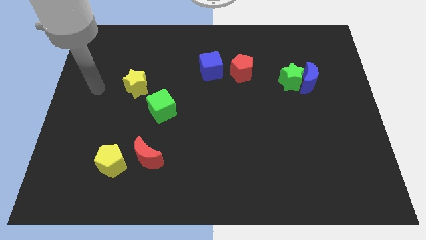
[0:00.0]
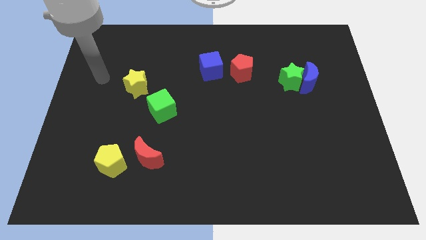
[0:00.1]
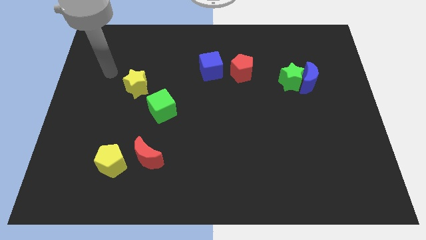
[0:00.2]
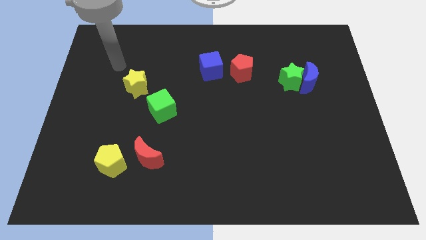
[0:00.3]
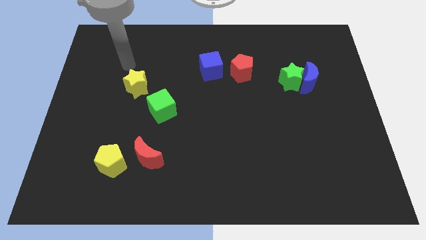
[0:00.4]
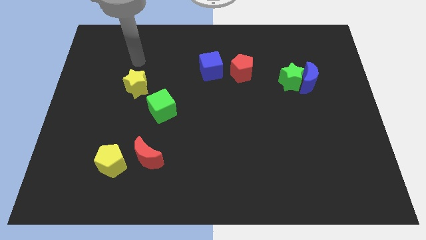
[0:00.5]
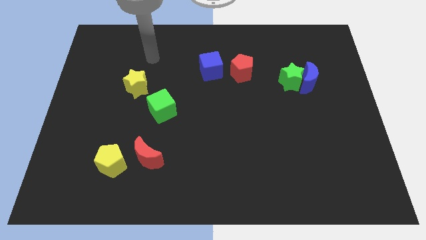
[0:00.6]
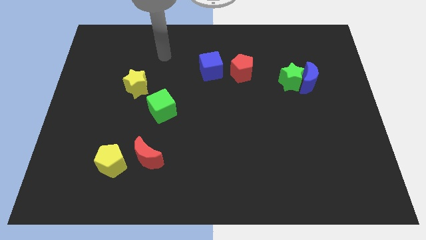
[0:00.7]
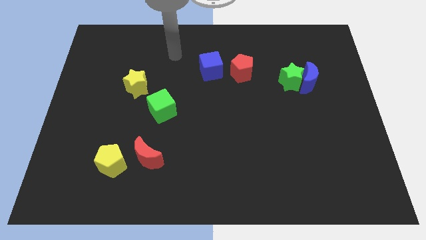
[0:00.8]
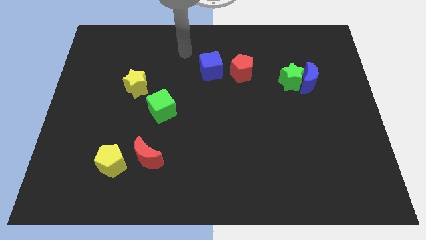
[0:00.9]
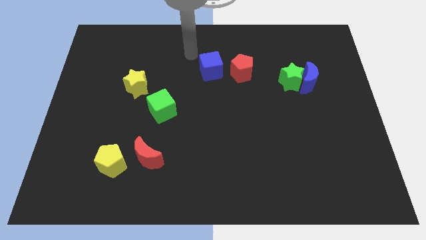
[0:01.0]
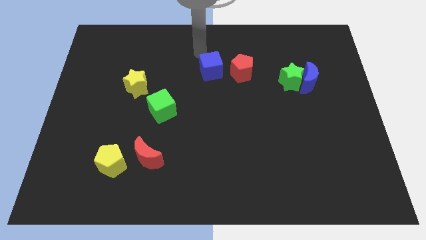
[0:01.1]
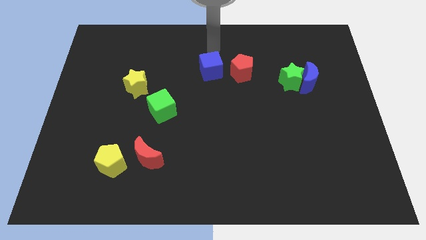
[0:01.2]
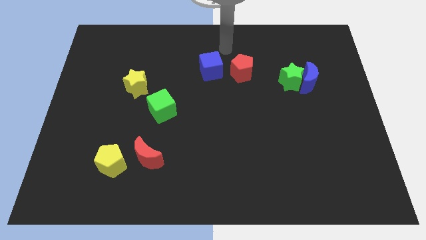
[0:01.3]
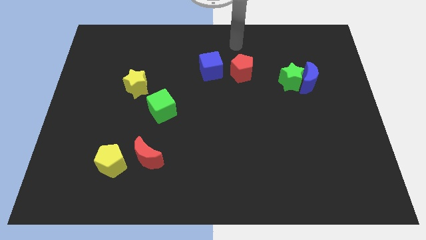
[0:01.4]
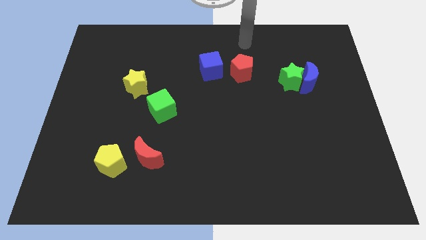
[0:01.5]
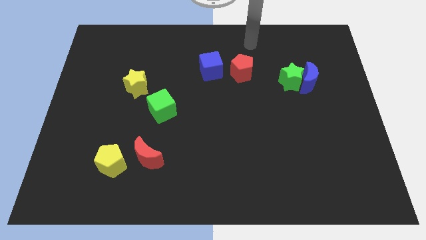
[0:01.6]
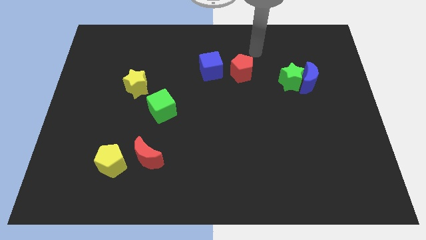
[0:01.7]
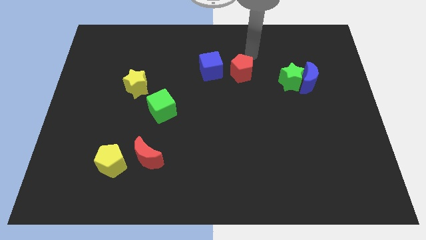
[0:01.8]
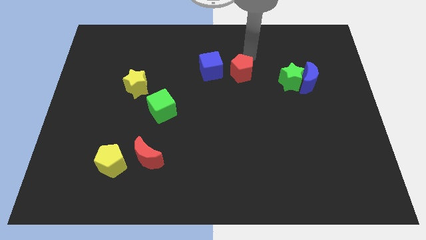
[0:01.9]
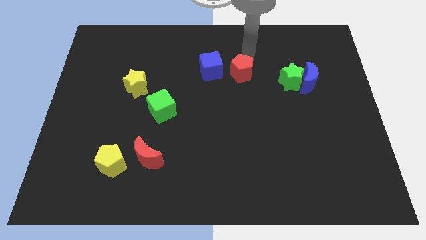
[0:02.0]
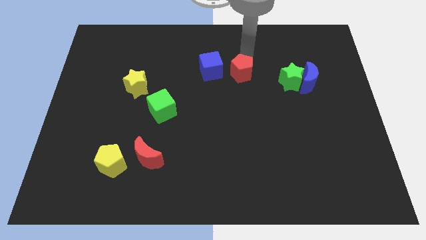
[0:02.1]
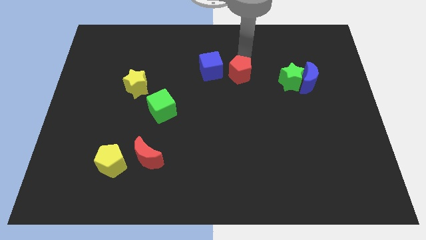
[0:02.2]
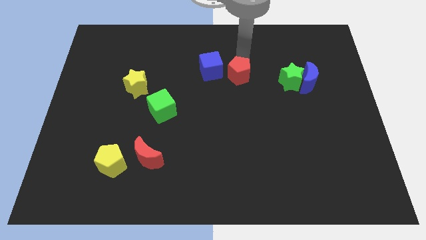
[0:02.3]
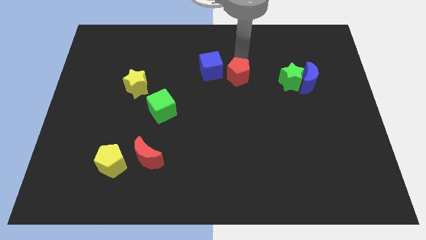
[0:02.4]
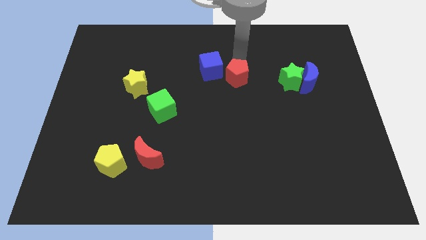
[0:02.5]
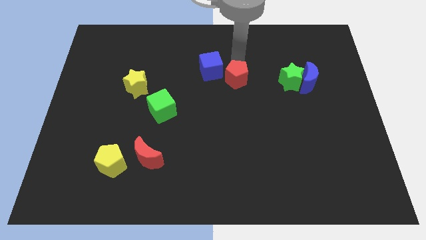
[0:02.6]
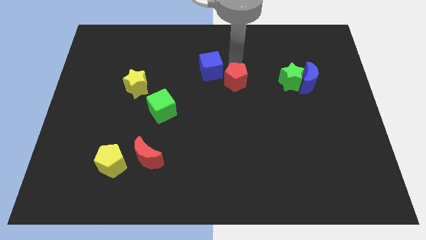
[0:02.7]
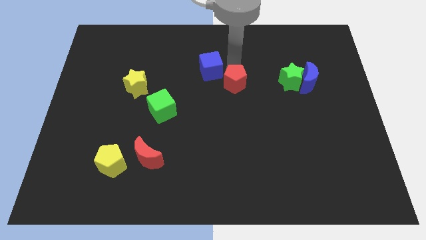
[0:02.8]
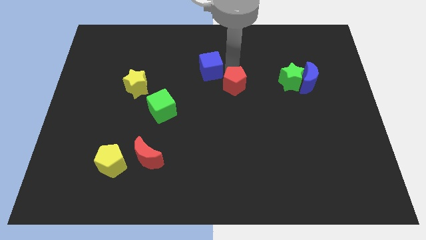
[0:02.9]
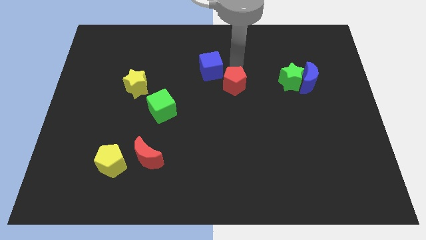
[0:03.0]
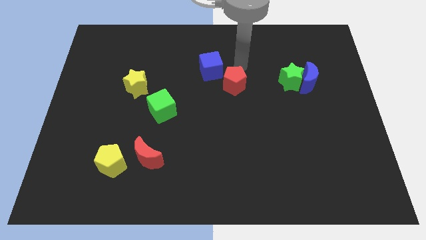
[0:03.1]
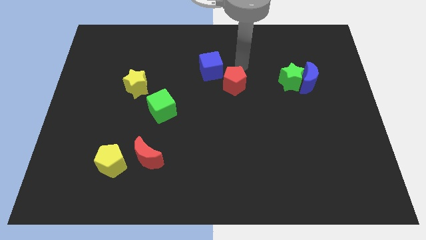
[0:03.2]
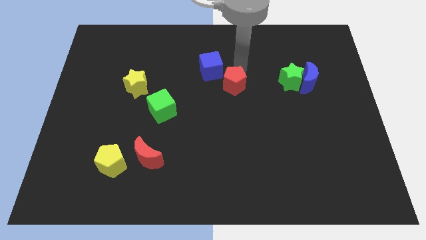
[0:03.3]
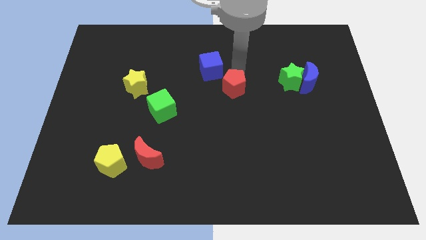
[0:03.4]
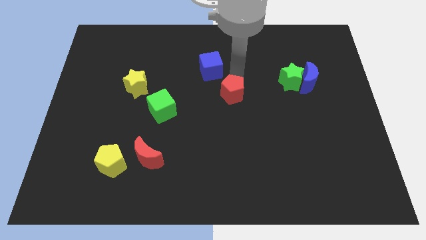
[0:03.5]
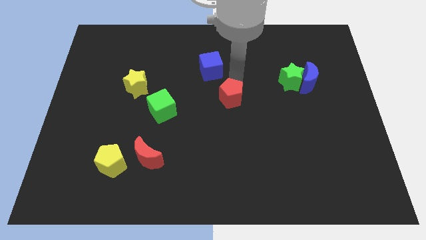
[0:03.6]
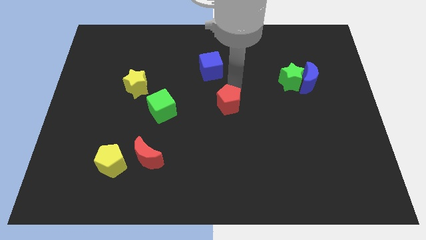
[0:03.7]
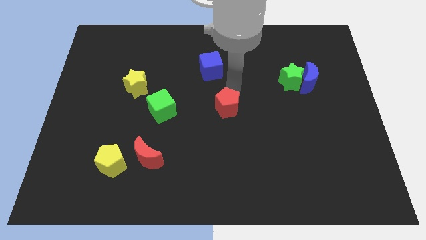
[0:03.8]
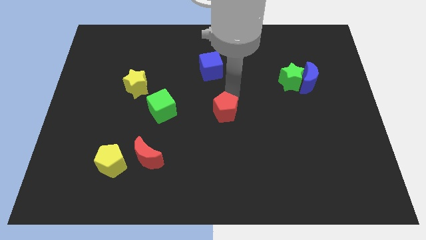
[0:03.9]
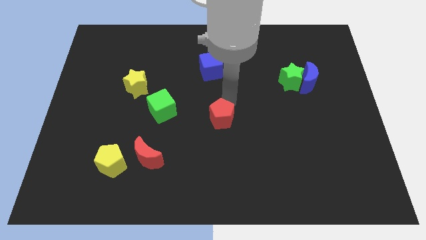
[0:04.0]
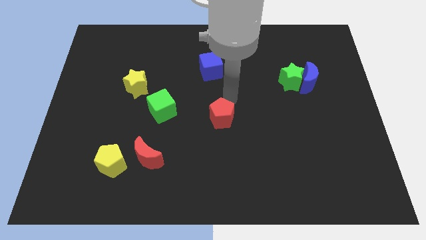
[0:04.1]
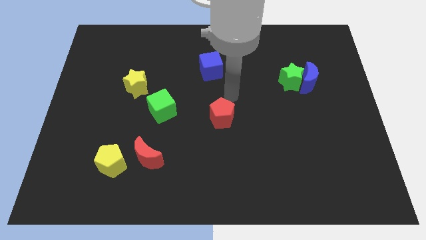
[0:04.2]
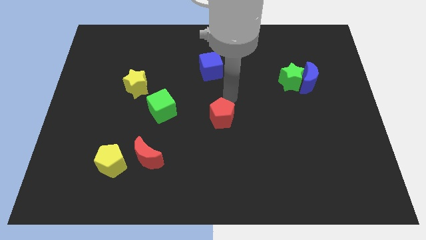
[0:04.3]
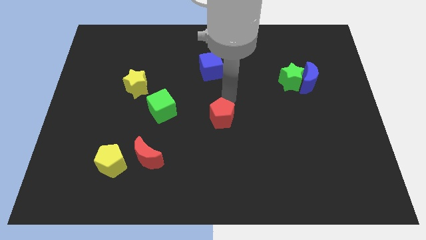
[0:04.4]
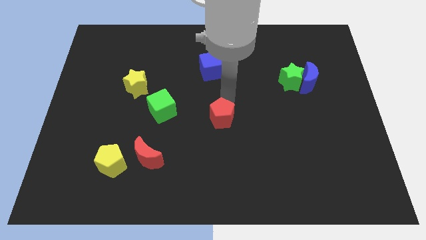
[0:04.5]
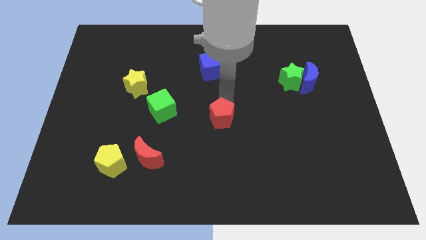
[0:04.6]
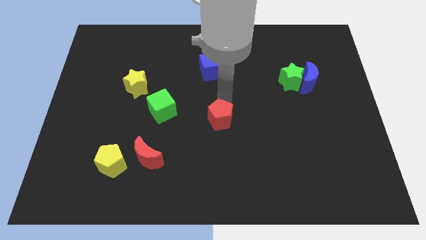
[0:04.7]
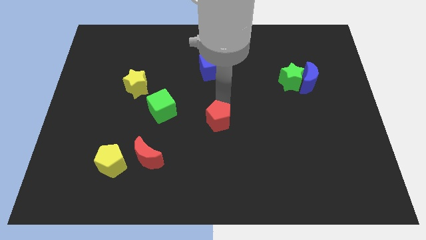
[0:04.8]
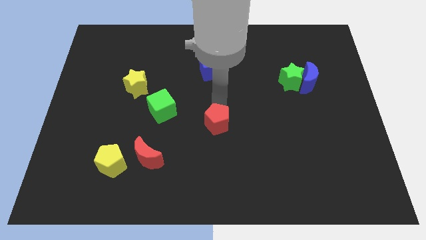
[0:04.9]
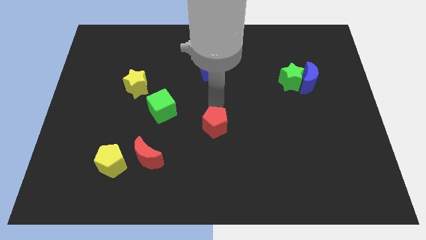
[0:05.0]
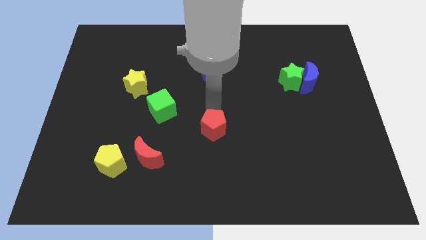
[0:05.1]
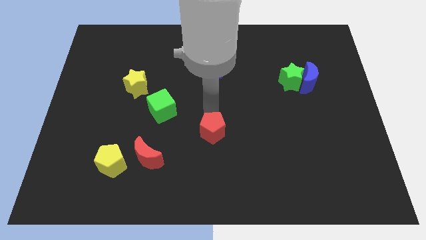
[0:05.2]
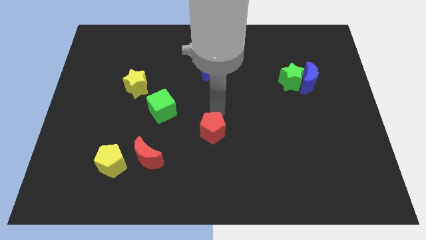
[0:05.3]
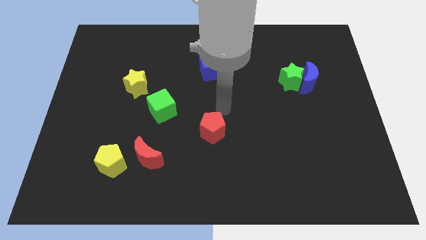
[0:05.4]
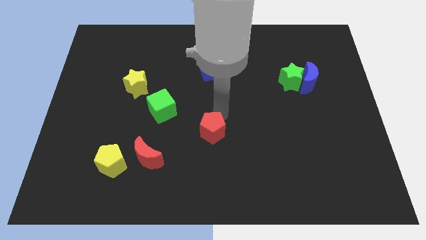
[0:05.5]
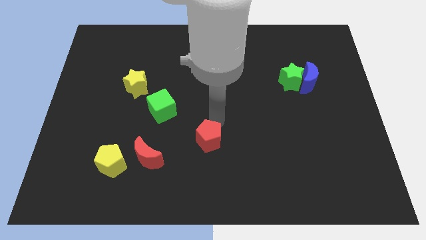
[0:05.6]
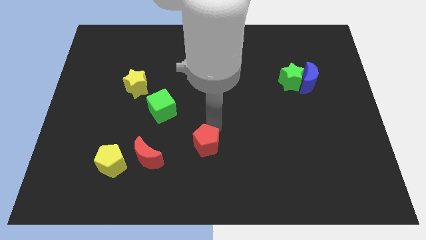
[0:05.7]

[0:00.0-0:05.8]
move the red pentagon to the right of the red moon

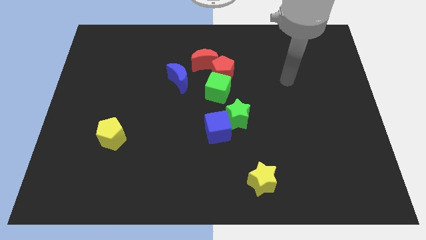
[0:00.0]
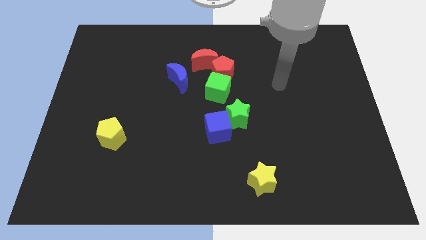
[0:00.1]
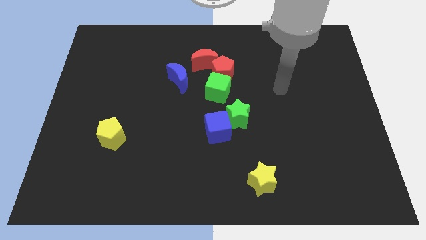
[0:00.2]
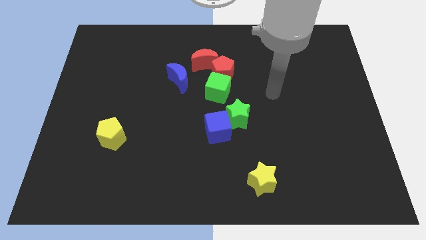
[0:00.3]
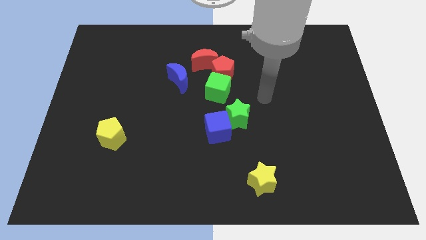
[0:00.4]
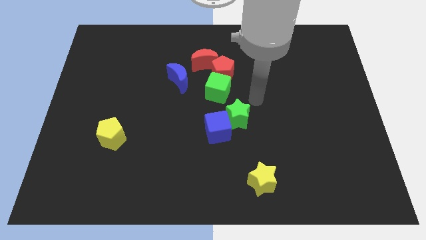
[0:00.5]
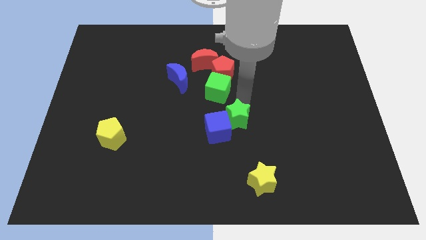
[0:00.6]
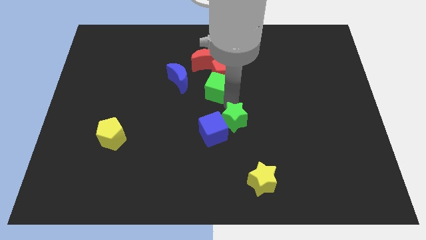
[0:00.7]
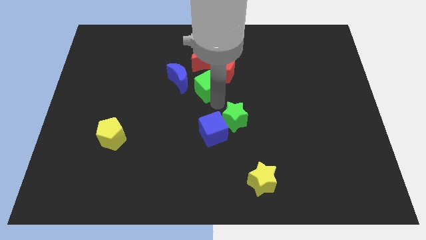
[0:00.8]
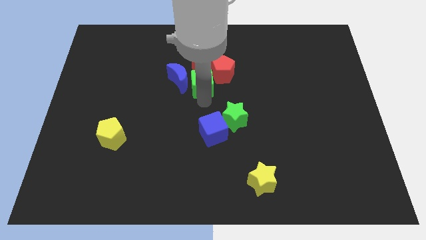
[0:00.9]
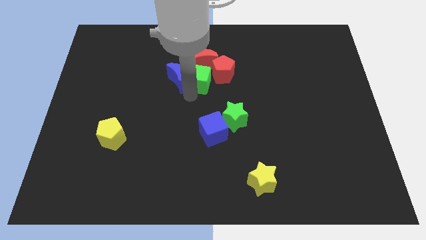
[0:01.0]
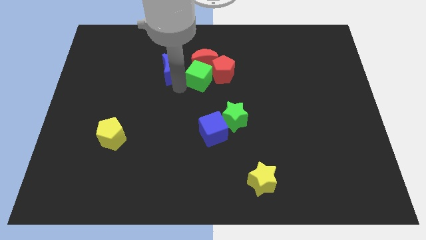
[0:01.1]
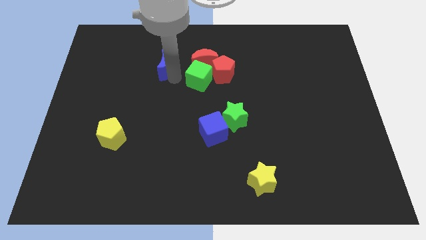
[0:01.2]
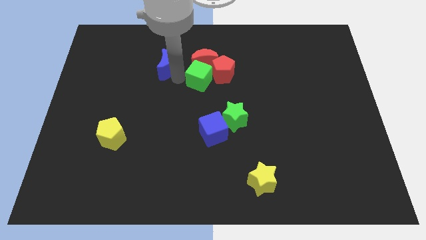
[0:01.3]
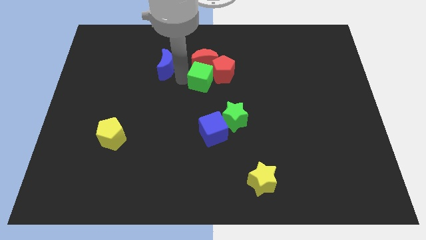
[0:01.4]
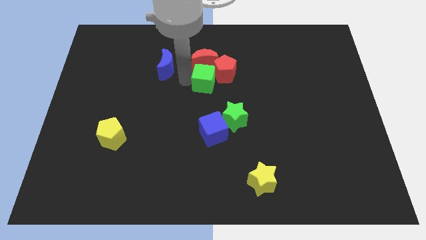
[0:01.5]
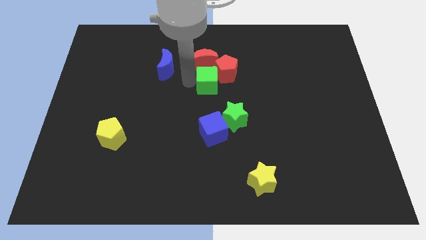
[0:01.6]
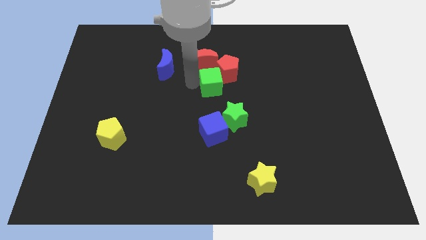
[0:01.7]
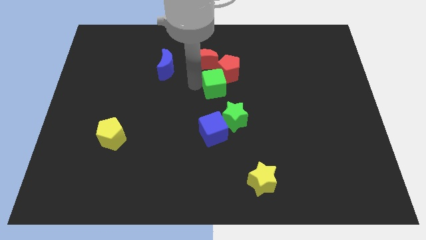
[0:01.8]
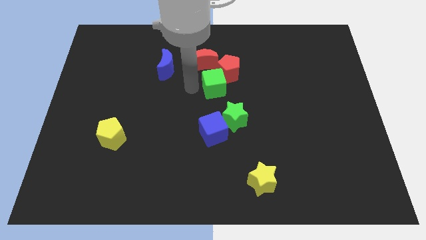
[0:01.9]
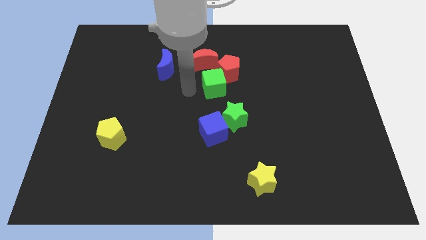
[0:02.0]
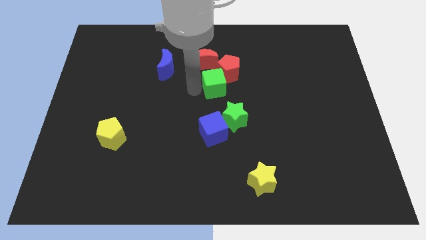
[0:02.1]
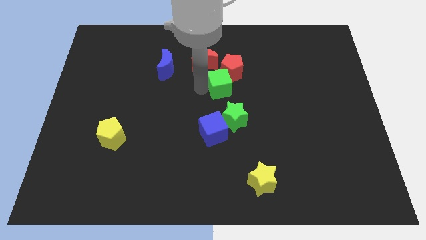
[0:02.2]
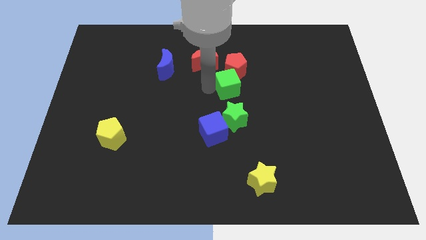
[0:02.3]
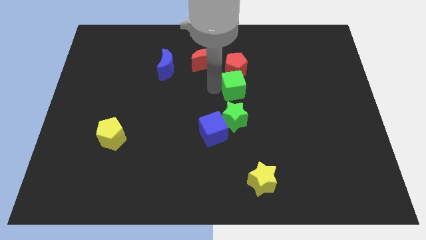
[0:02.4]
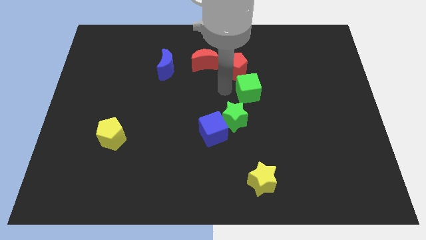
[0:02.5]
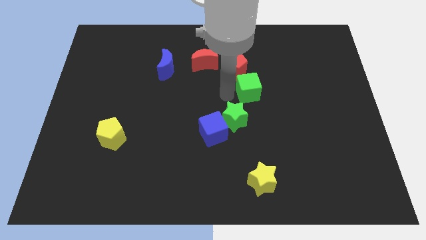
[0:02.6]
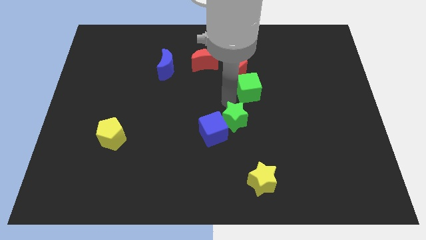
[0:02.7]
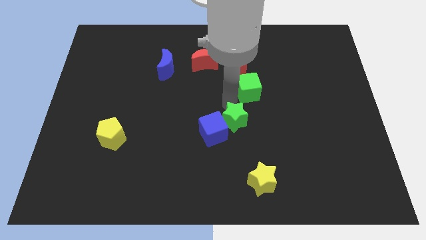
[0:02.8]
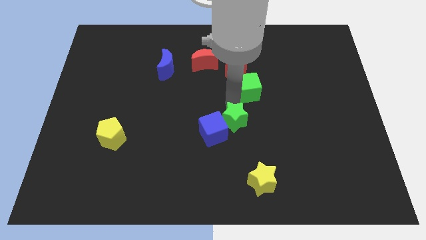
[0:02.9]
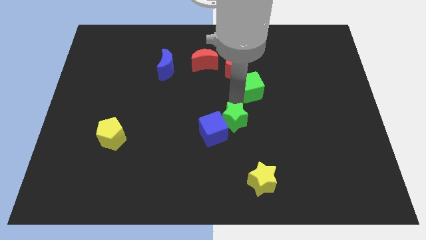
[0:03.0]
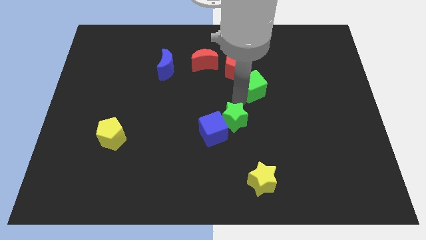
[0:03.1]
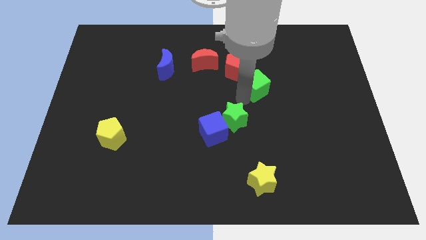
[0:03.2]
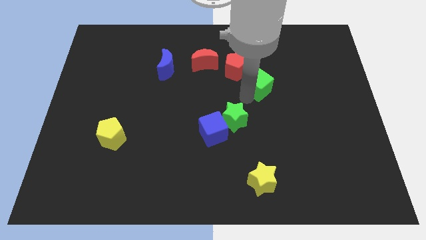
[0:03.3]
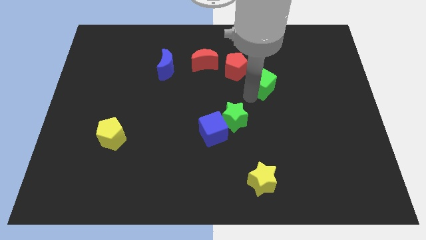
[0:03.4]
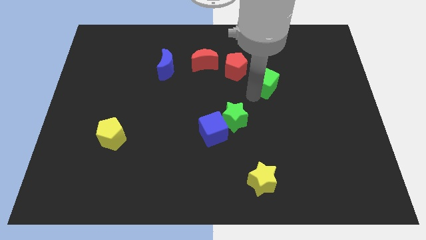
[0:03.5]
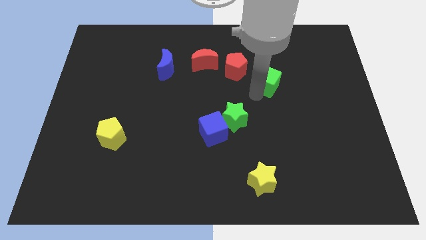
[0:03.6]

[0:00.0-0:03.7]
slide the green cube to the right of the red pentagon
